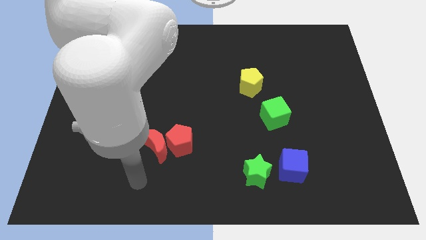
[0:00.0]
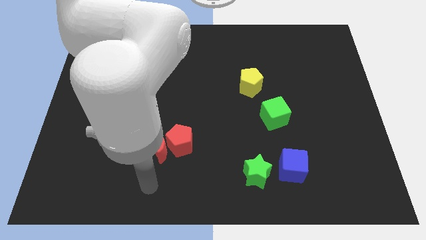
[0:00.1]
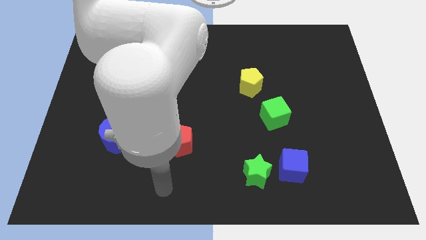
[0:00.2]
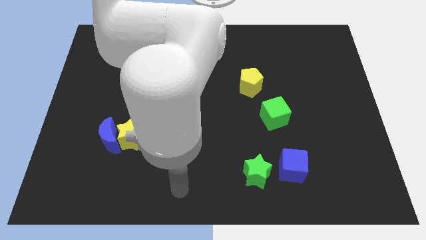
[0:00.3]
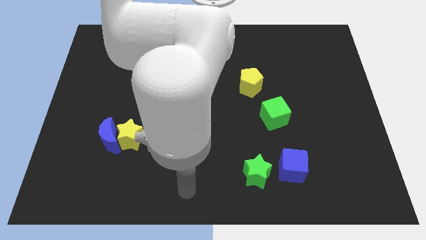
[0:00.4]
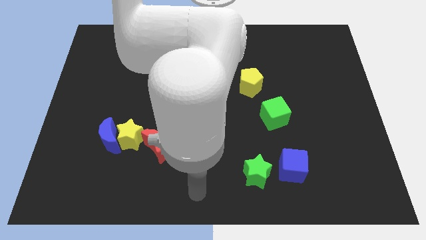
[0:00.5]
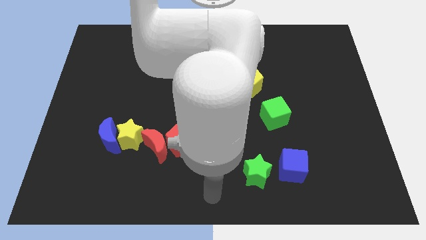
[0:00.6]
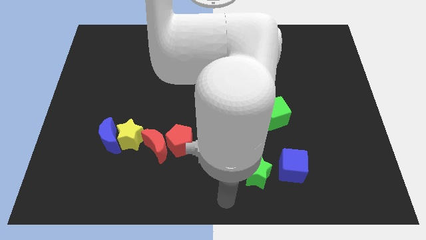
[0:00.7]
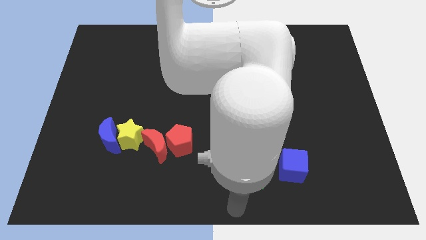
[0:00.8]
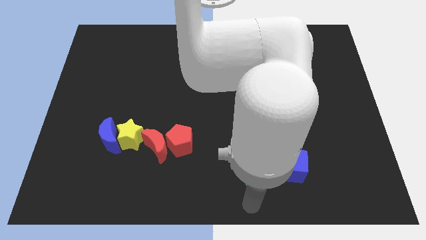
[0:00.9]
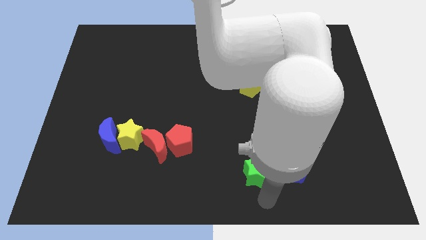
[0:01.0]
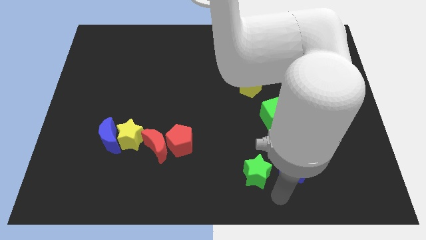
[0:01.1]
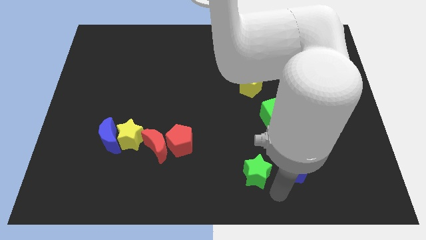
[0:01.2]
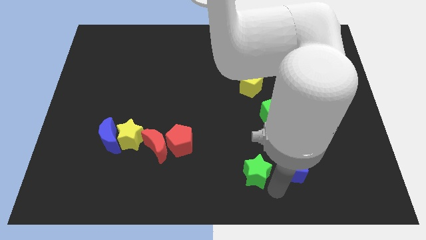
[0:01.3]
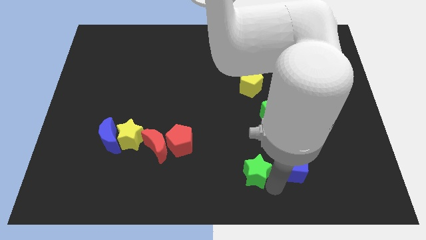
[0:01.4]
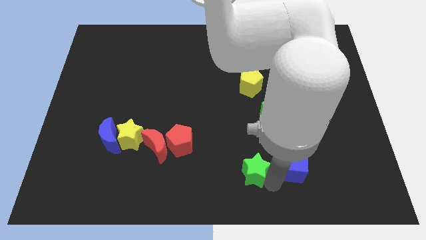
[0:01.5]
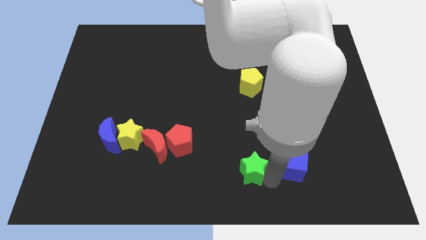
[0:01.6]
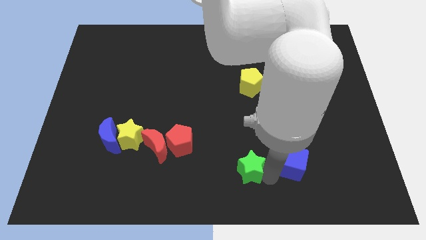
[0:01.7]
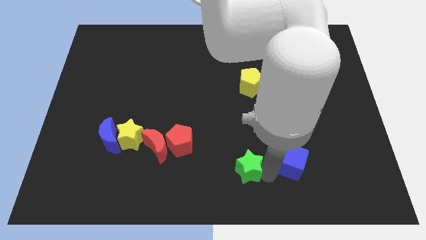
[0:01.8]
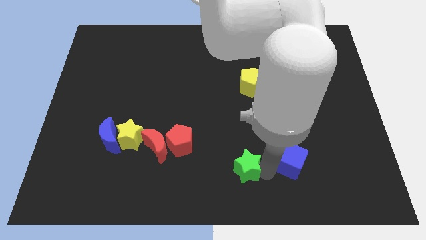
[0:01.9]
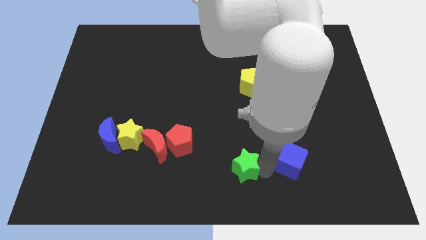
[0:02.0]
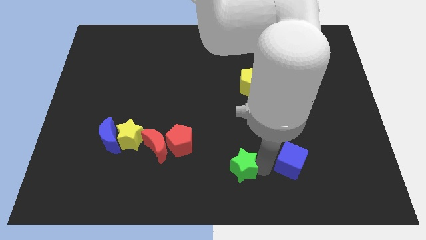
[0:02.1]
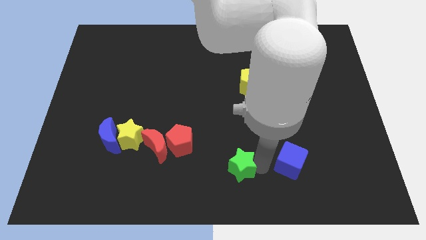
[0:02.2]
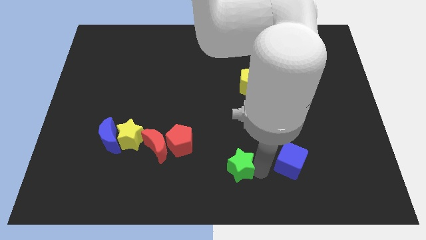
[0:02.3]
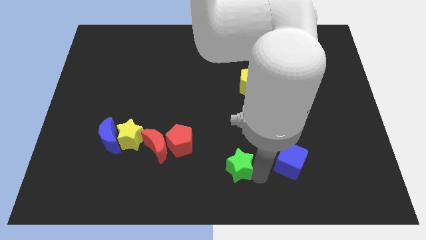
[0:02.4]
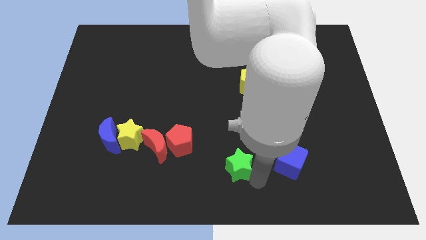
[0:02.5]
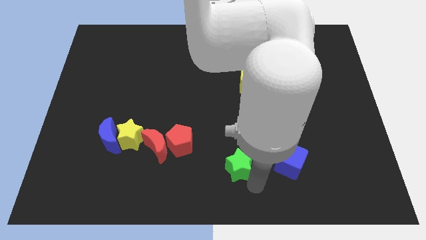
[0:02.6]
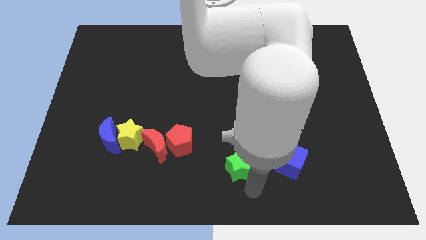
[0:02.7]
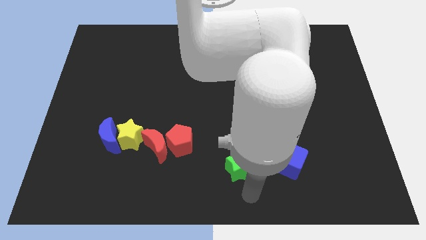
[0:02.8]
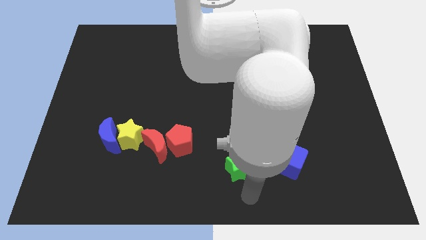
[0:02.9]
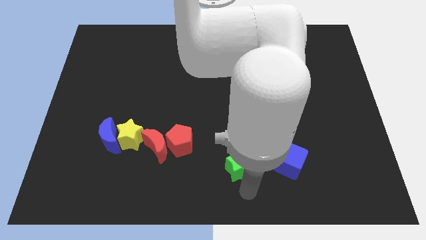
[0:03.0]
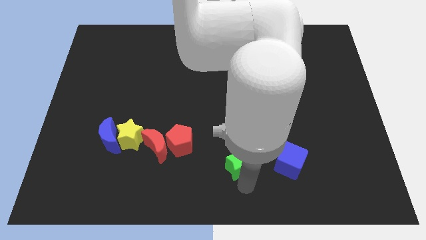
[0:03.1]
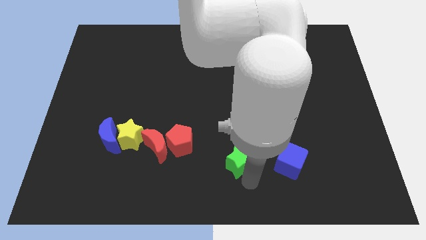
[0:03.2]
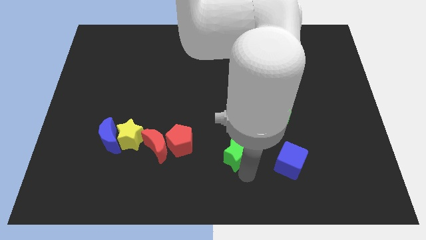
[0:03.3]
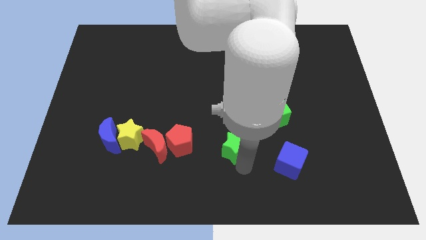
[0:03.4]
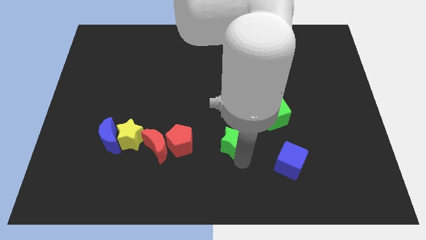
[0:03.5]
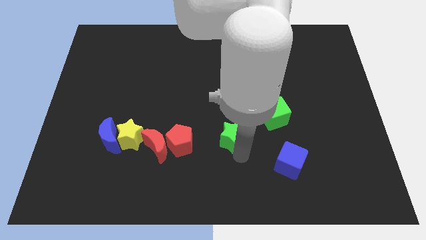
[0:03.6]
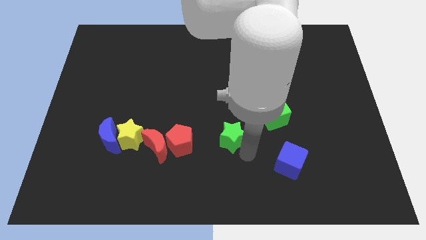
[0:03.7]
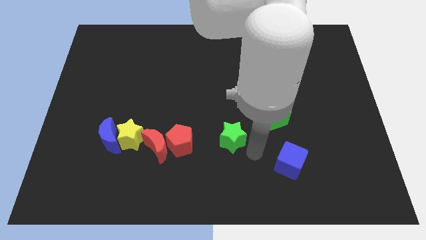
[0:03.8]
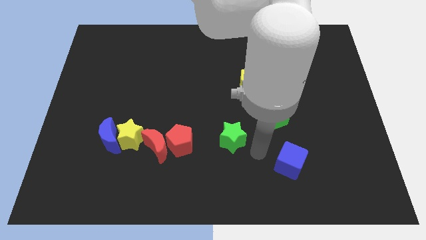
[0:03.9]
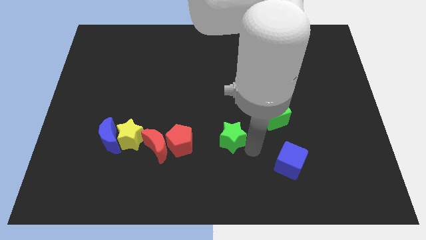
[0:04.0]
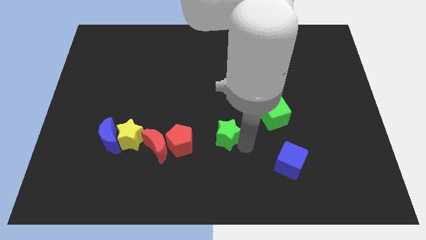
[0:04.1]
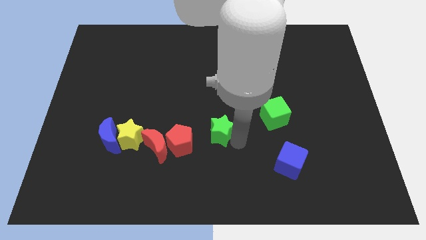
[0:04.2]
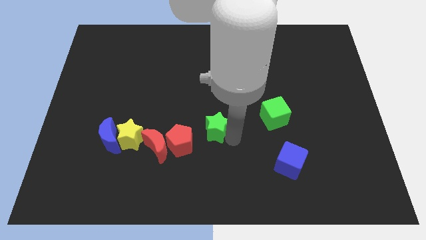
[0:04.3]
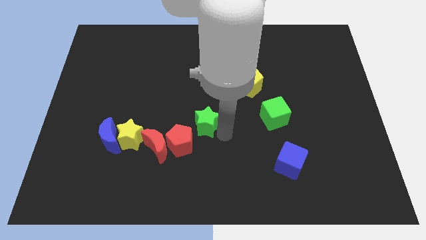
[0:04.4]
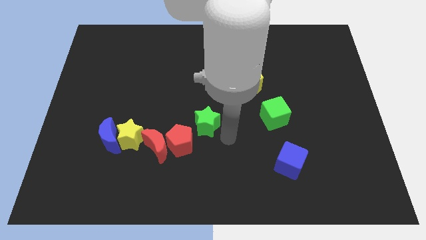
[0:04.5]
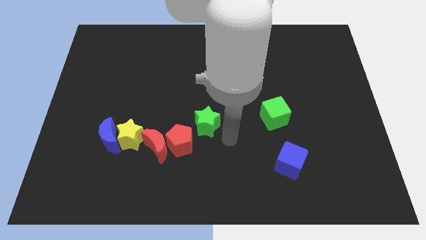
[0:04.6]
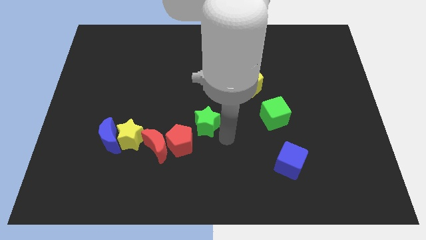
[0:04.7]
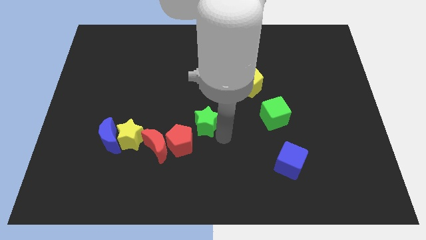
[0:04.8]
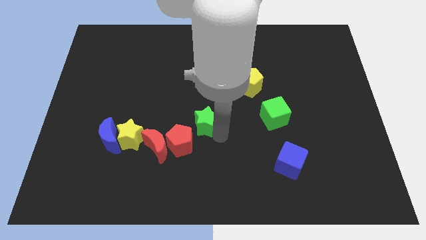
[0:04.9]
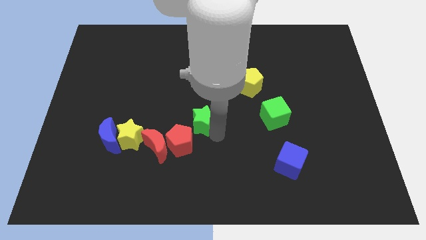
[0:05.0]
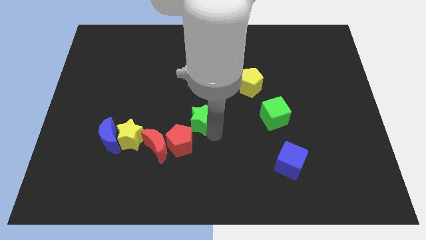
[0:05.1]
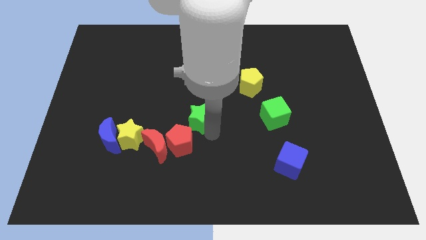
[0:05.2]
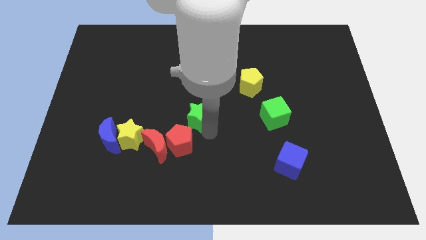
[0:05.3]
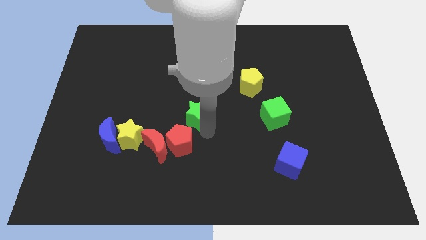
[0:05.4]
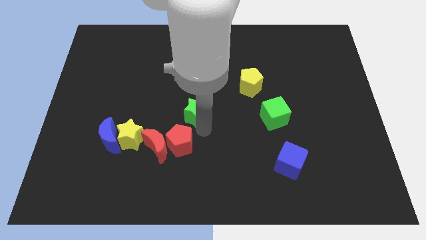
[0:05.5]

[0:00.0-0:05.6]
move the green star upwards and left diagonally

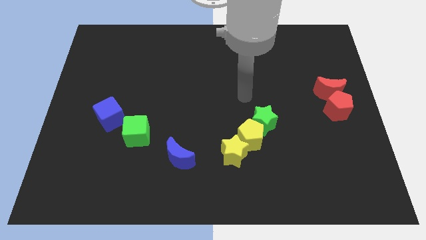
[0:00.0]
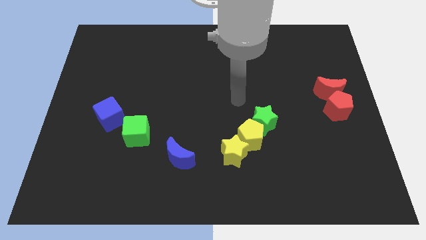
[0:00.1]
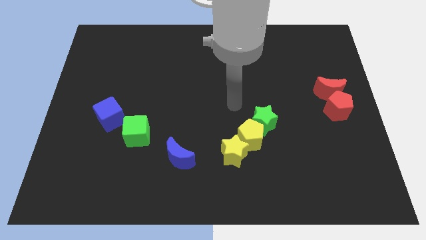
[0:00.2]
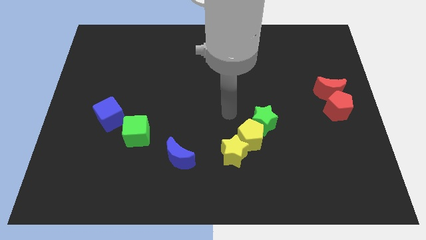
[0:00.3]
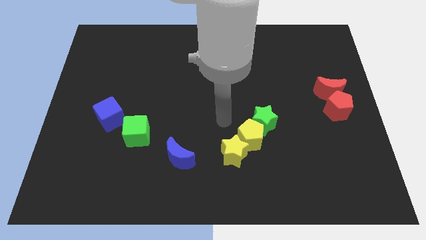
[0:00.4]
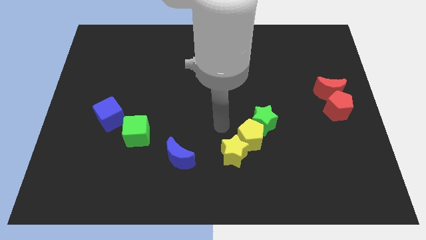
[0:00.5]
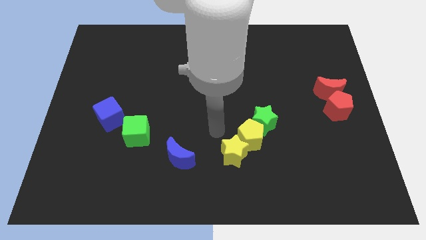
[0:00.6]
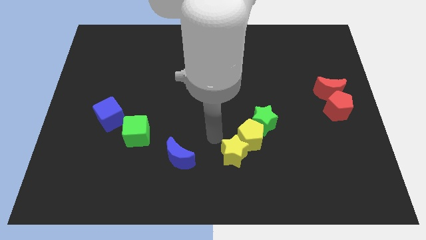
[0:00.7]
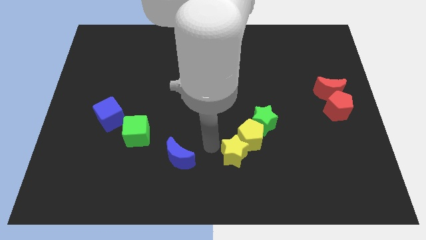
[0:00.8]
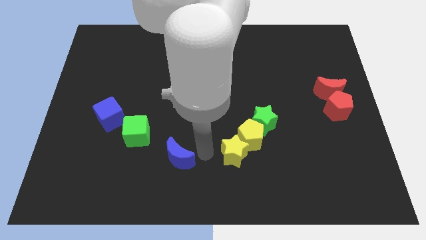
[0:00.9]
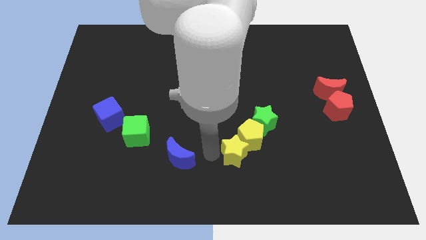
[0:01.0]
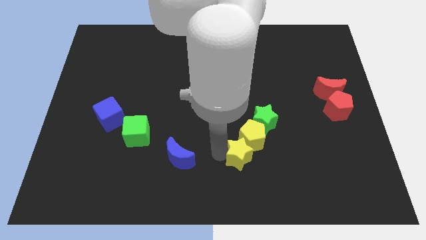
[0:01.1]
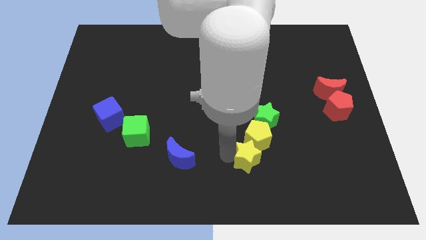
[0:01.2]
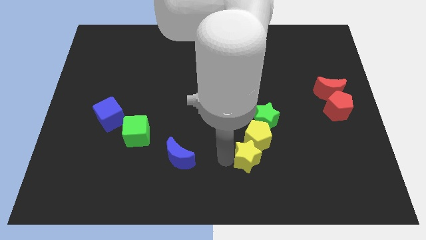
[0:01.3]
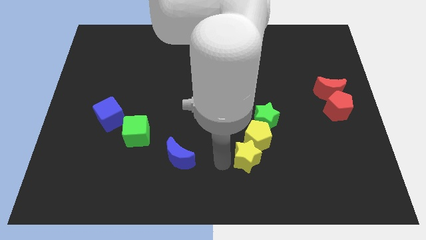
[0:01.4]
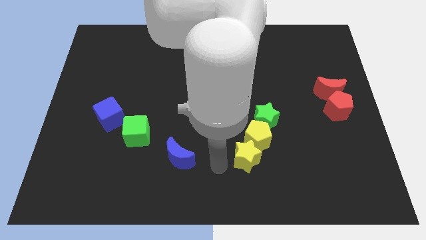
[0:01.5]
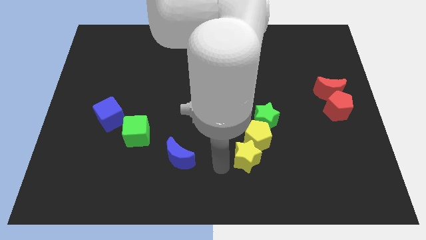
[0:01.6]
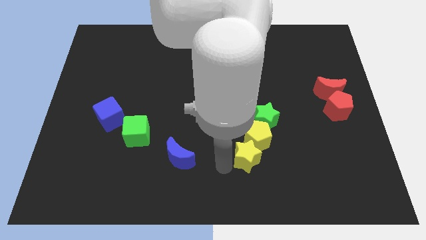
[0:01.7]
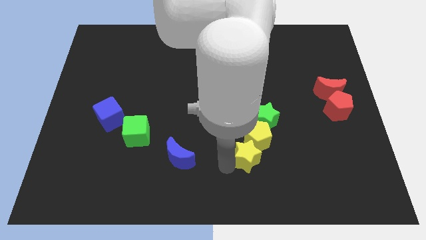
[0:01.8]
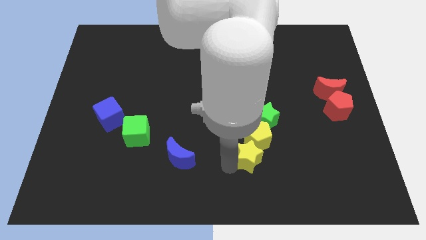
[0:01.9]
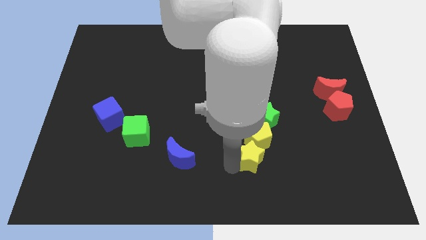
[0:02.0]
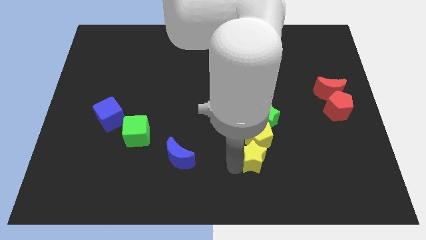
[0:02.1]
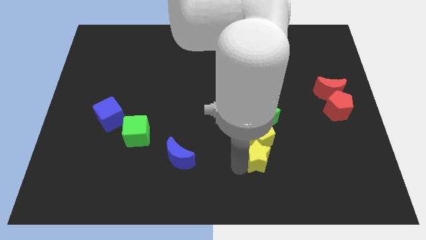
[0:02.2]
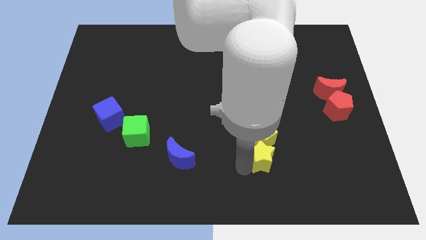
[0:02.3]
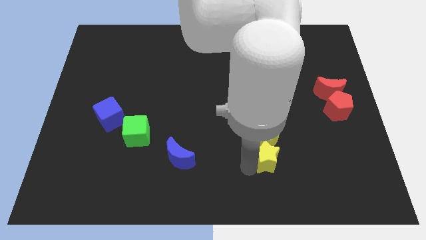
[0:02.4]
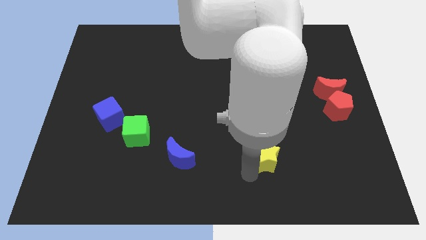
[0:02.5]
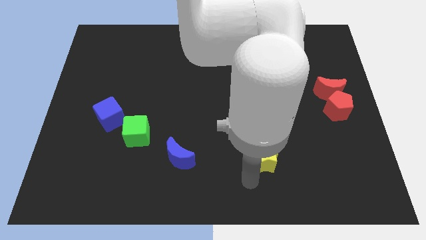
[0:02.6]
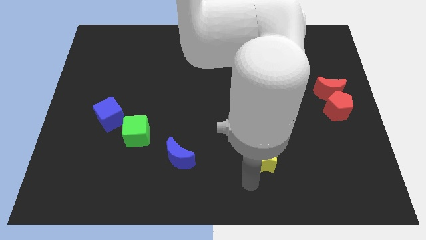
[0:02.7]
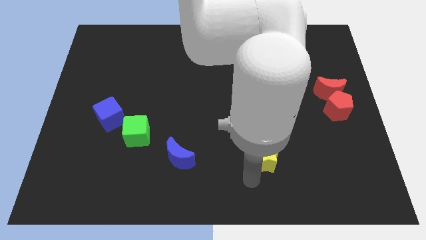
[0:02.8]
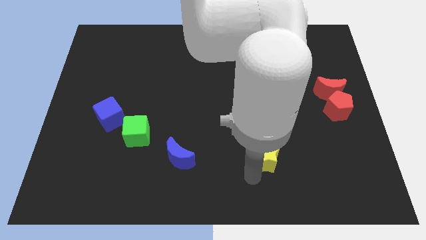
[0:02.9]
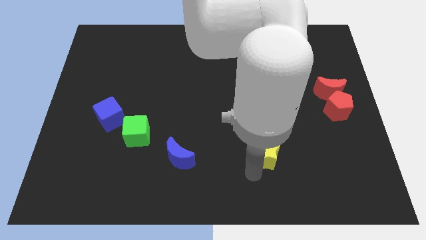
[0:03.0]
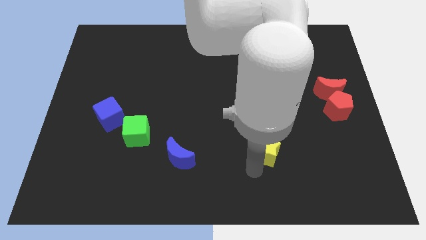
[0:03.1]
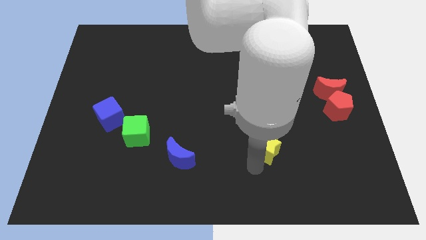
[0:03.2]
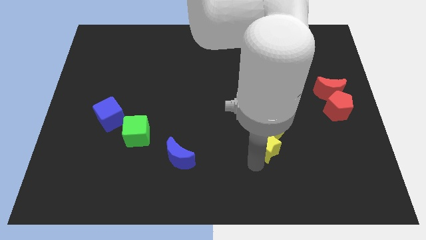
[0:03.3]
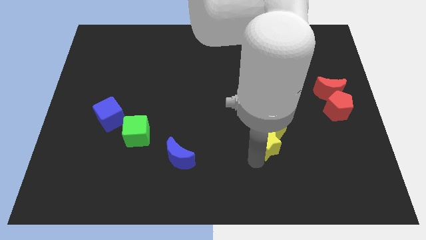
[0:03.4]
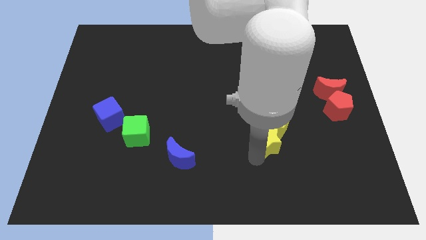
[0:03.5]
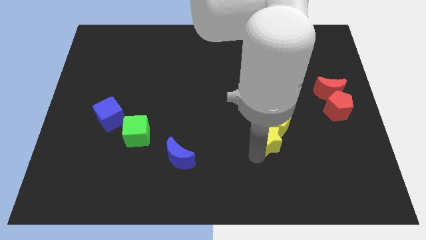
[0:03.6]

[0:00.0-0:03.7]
slightly slide the yellow star upwards and then to the right
